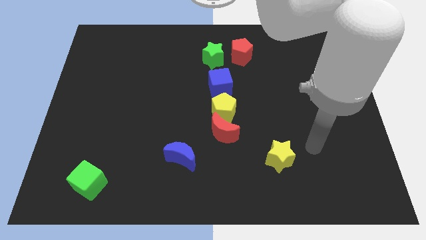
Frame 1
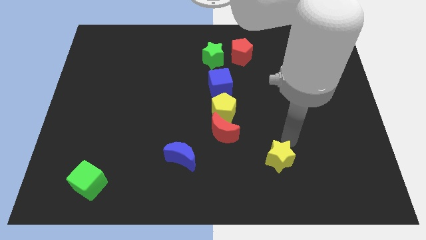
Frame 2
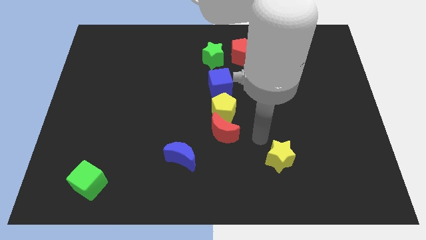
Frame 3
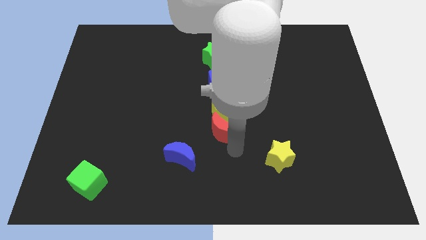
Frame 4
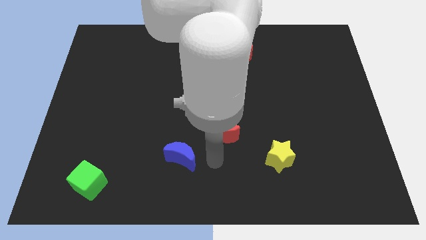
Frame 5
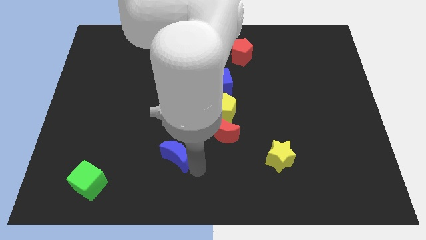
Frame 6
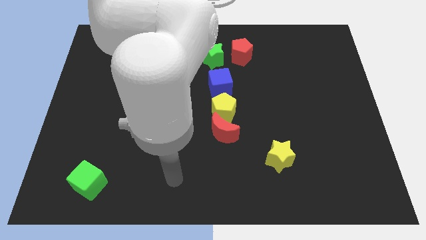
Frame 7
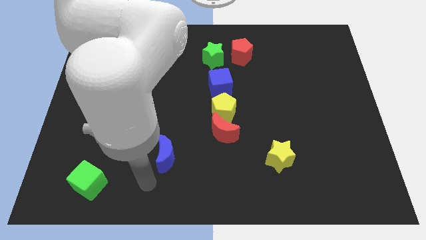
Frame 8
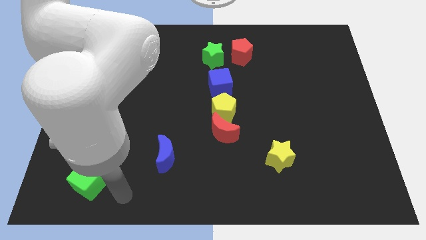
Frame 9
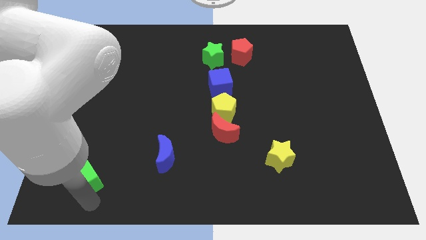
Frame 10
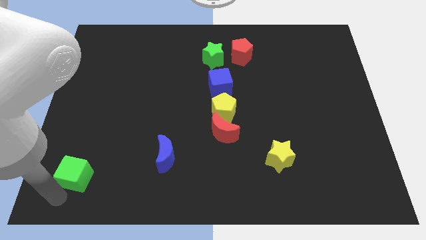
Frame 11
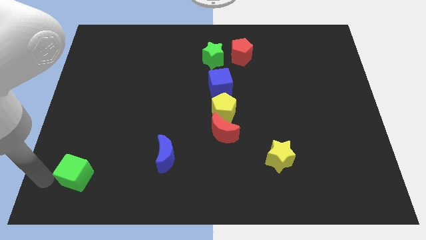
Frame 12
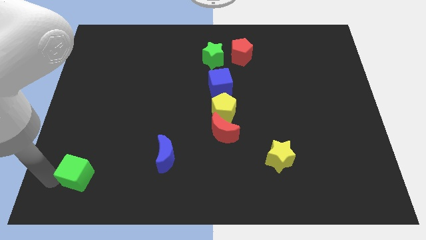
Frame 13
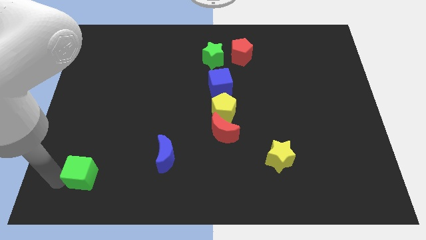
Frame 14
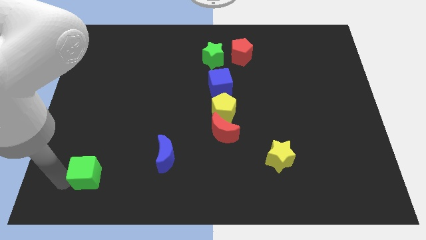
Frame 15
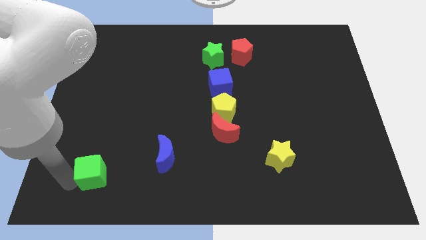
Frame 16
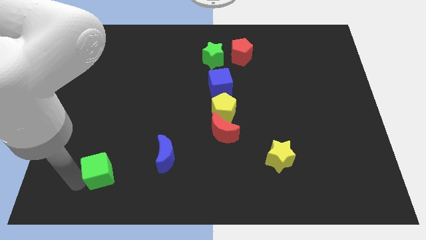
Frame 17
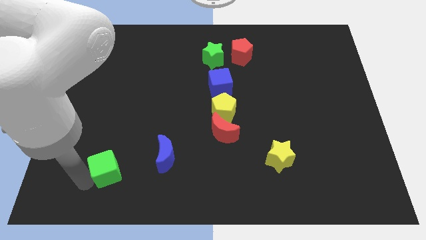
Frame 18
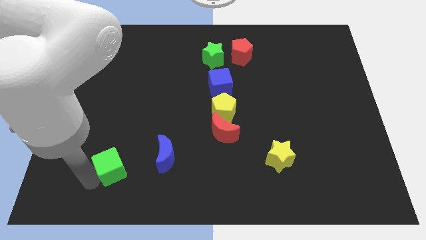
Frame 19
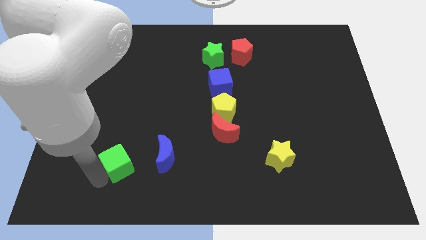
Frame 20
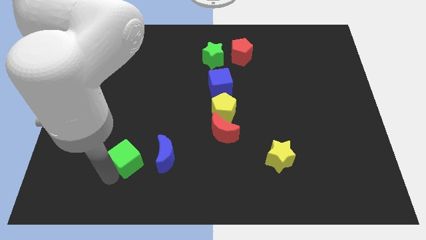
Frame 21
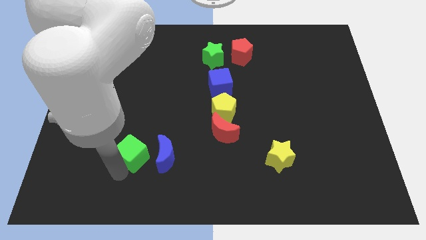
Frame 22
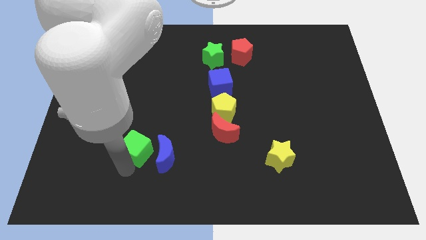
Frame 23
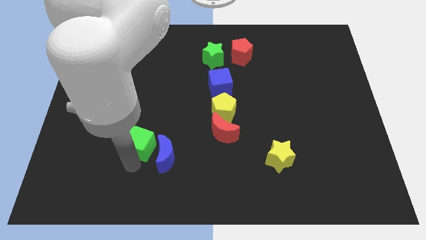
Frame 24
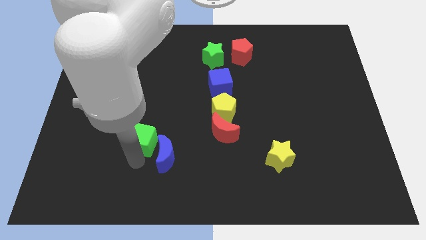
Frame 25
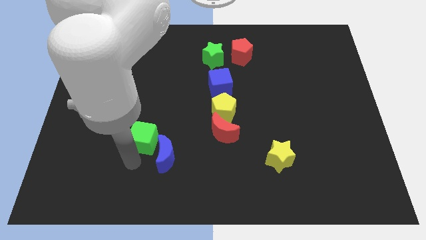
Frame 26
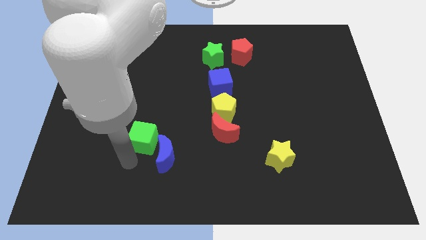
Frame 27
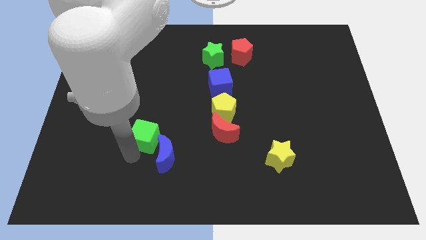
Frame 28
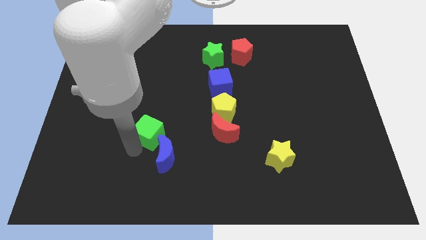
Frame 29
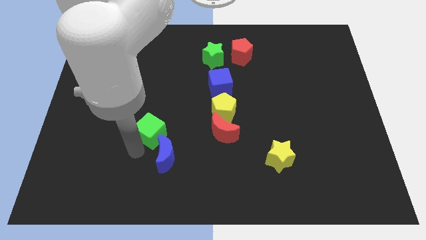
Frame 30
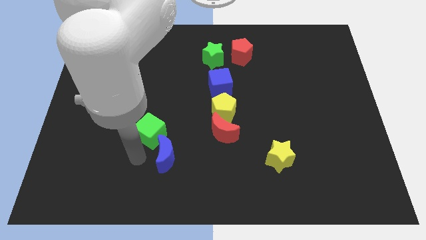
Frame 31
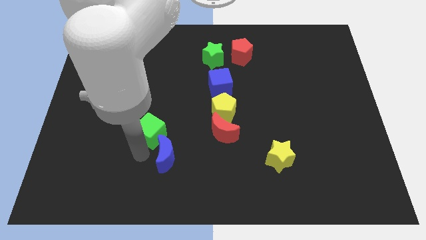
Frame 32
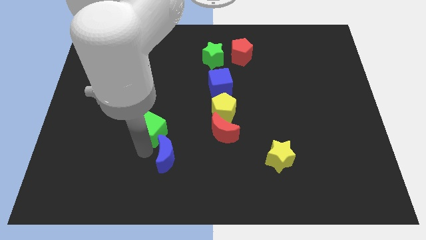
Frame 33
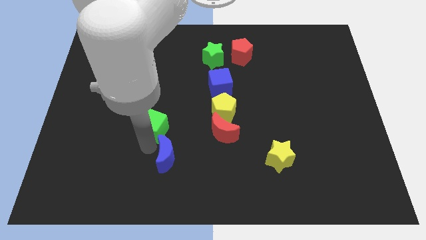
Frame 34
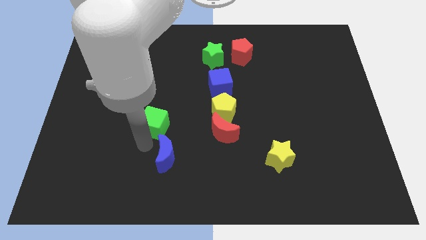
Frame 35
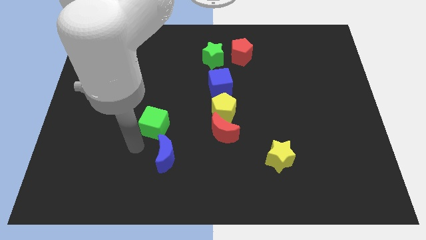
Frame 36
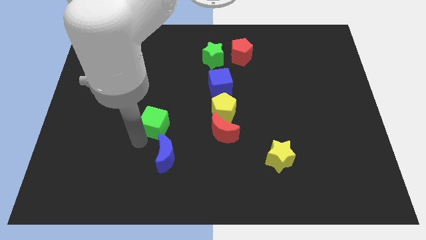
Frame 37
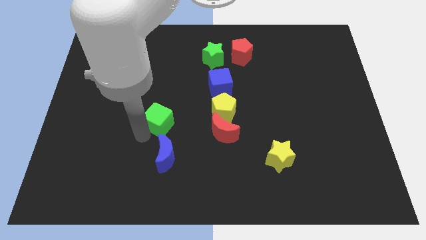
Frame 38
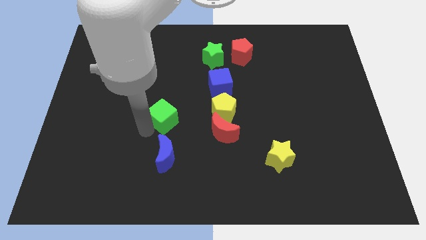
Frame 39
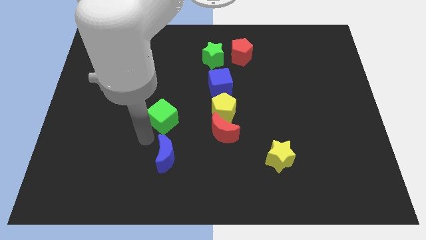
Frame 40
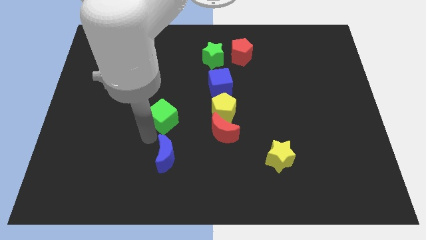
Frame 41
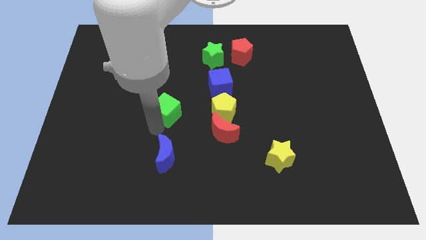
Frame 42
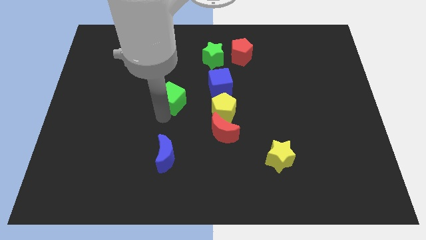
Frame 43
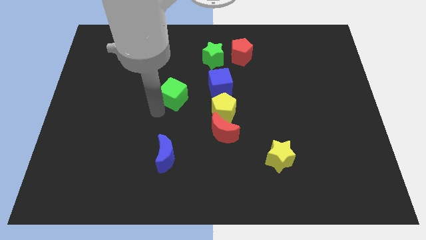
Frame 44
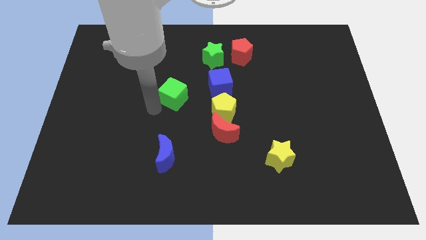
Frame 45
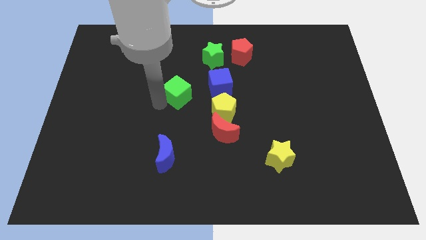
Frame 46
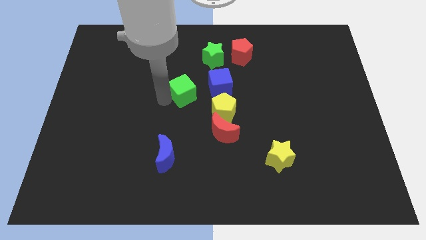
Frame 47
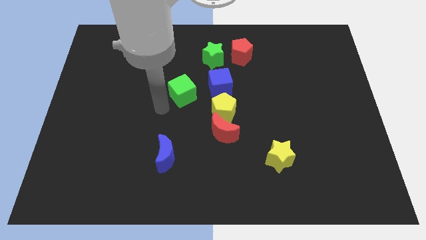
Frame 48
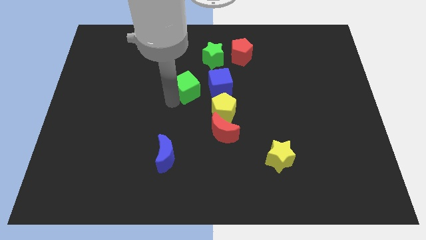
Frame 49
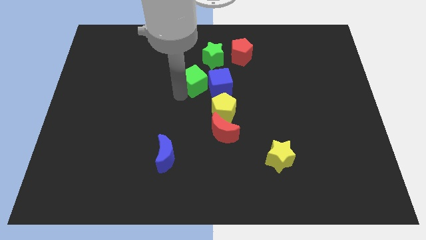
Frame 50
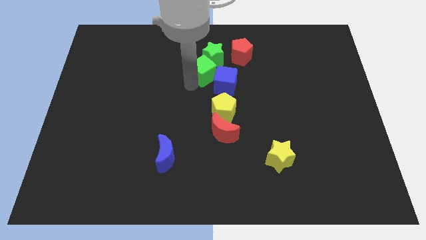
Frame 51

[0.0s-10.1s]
move the green cube diagonally down and to the left of the red pentagon

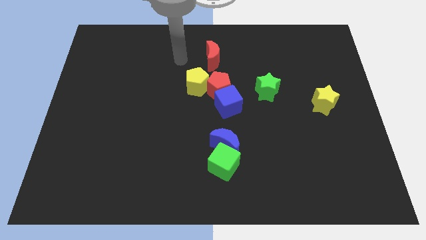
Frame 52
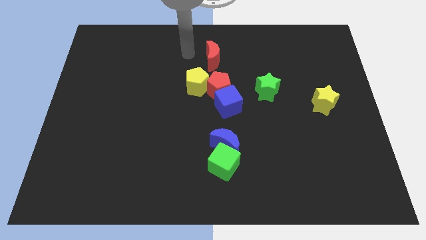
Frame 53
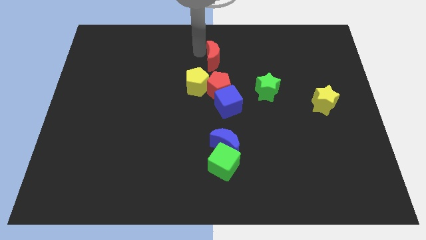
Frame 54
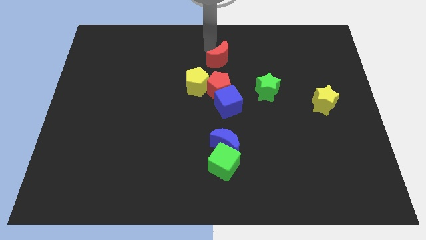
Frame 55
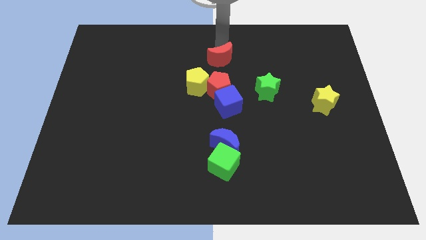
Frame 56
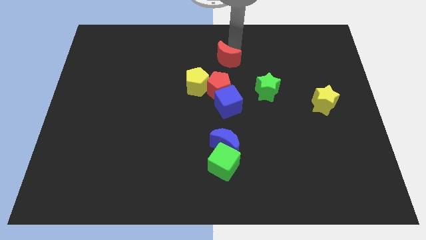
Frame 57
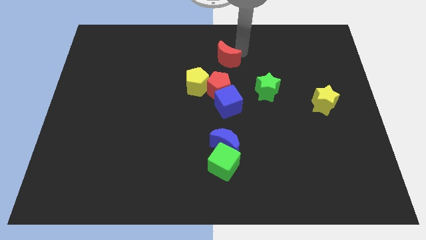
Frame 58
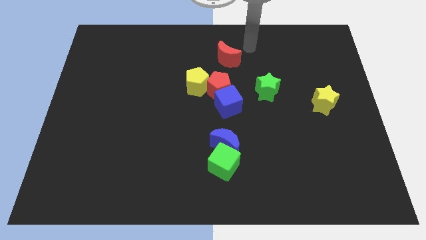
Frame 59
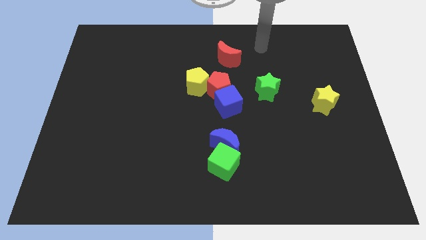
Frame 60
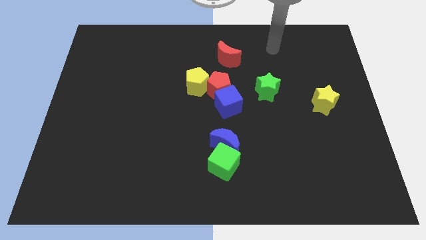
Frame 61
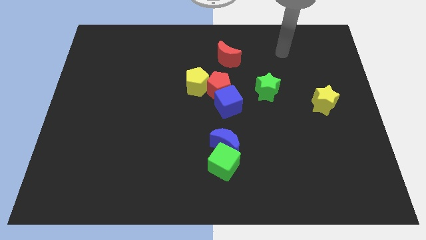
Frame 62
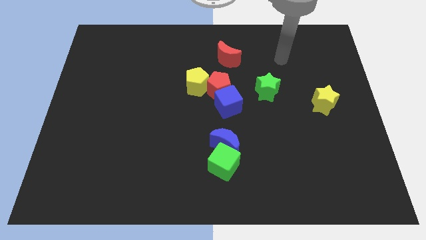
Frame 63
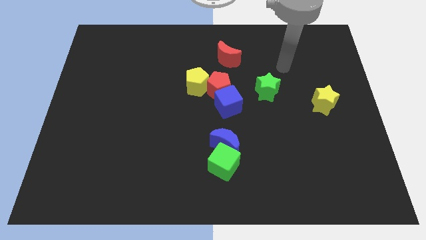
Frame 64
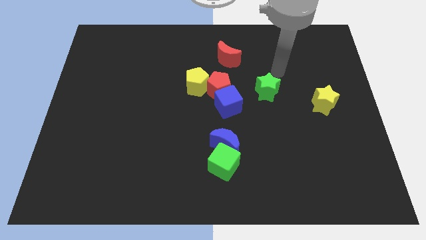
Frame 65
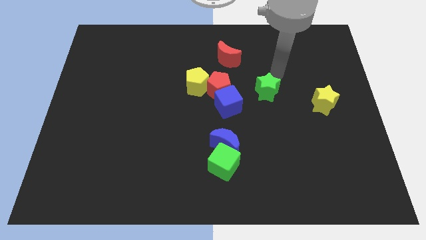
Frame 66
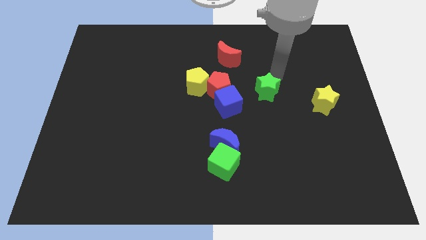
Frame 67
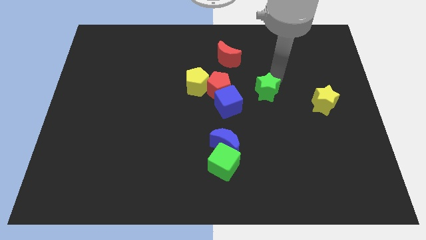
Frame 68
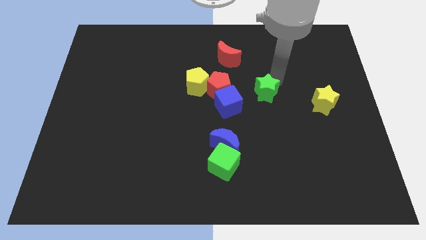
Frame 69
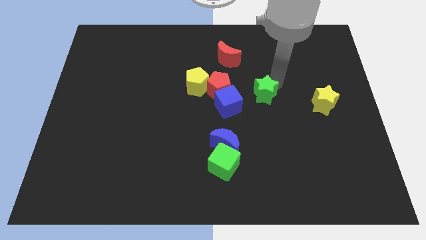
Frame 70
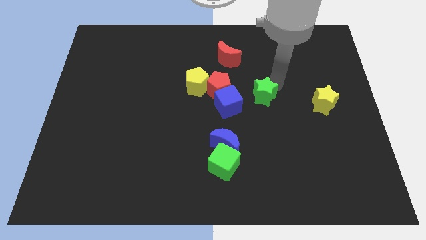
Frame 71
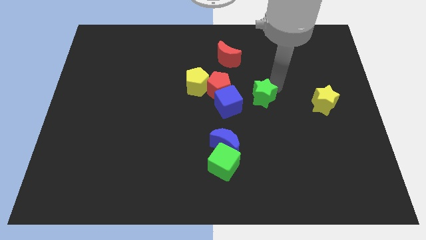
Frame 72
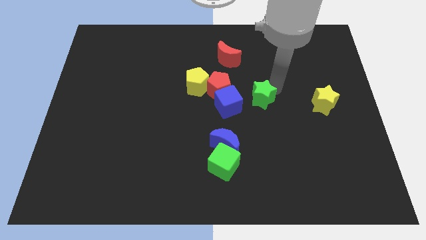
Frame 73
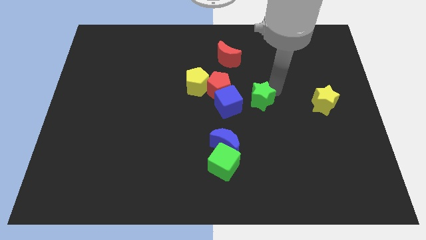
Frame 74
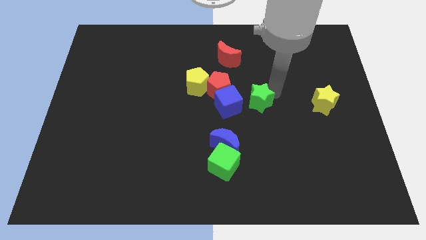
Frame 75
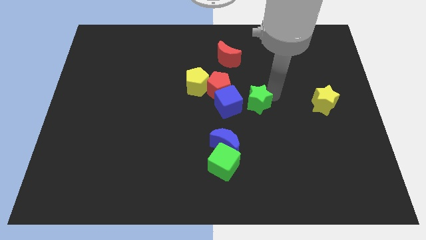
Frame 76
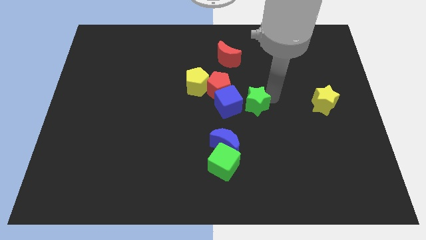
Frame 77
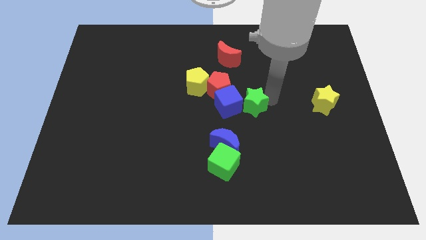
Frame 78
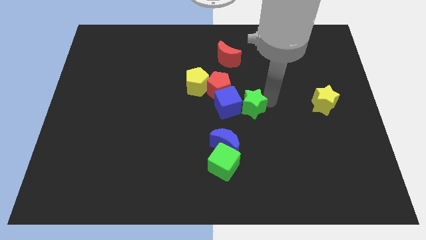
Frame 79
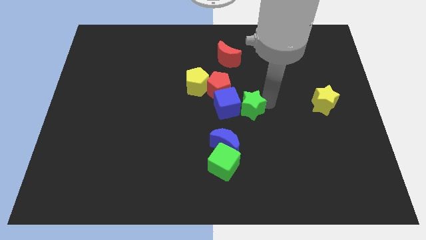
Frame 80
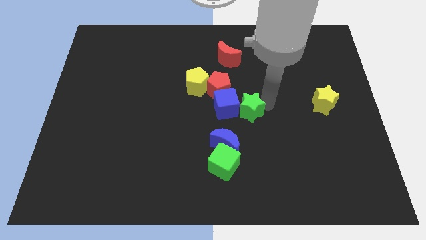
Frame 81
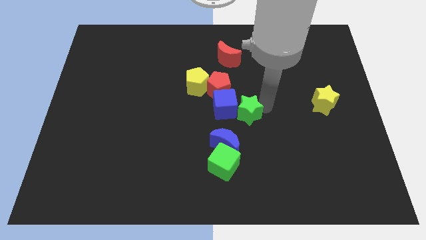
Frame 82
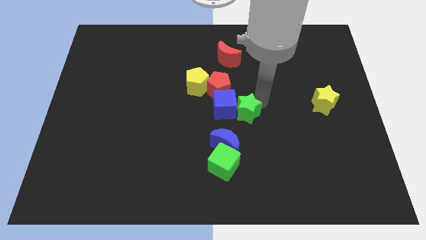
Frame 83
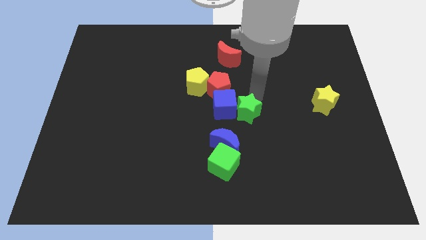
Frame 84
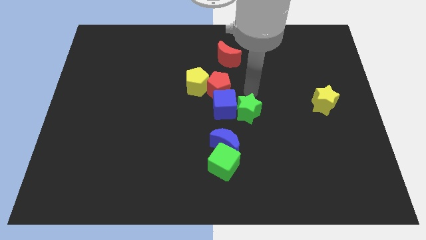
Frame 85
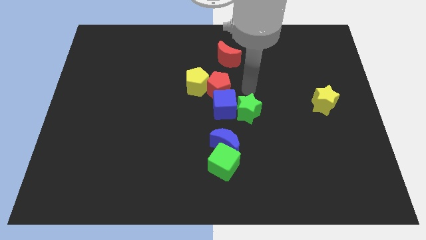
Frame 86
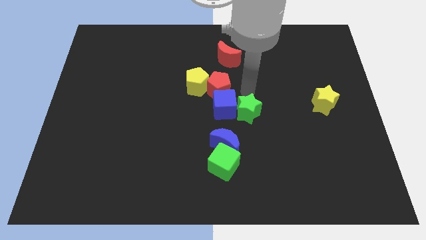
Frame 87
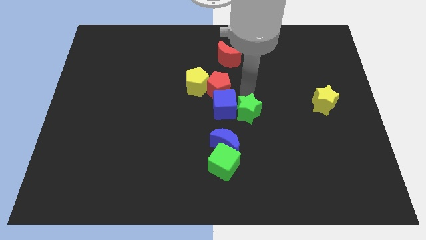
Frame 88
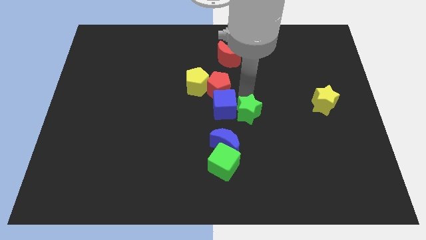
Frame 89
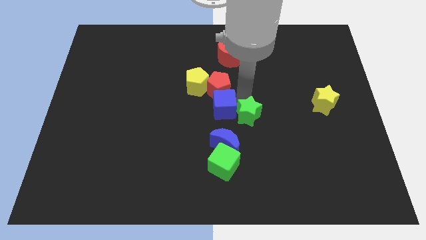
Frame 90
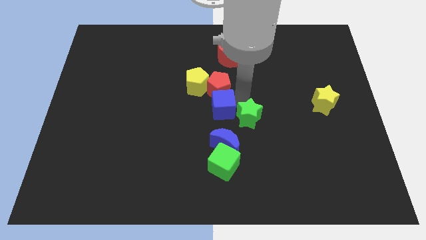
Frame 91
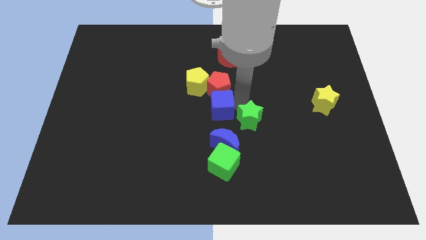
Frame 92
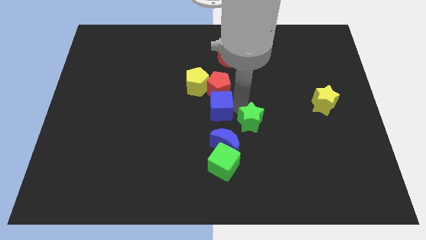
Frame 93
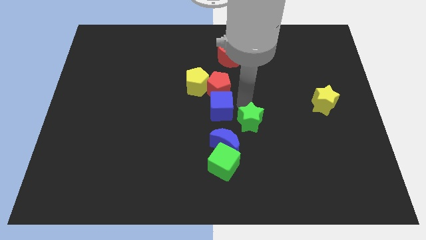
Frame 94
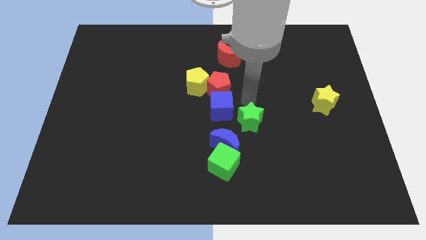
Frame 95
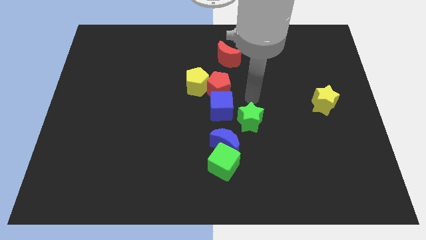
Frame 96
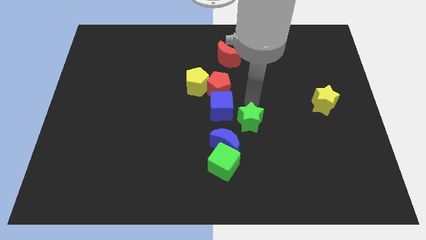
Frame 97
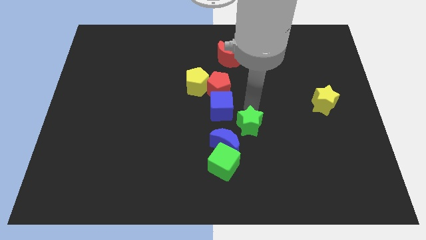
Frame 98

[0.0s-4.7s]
push the green star to the top right of the green cube
